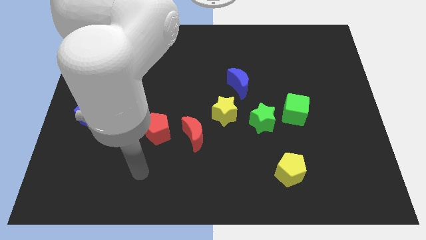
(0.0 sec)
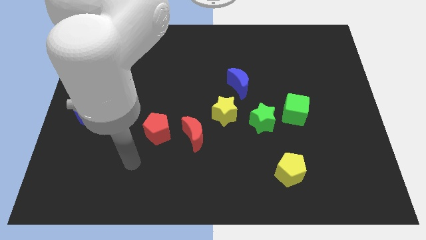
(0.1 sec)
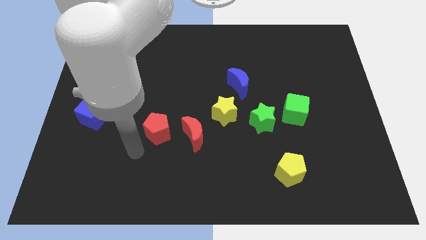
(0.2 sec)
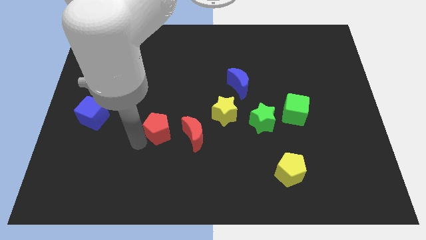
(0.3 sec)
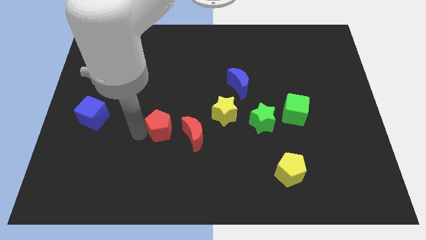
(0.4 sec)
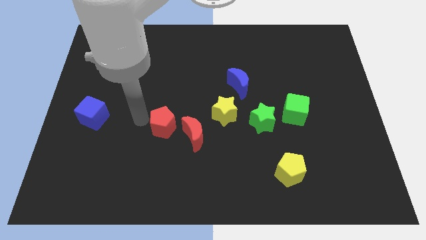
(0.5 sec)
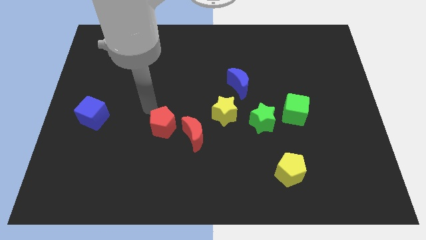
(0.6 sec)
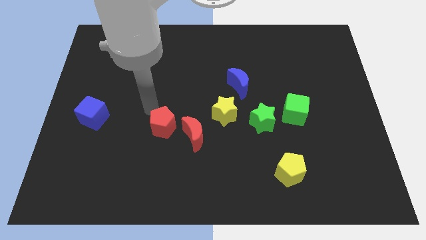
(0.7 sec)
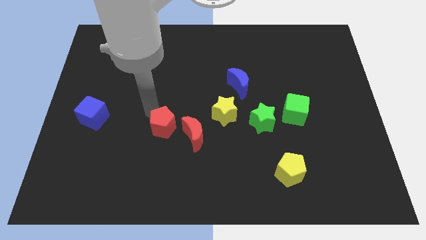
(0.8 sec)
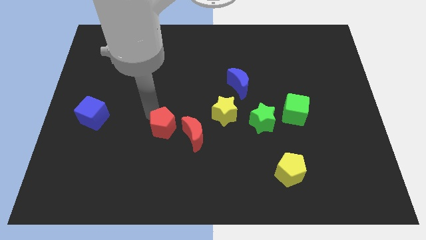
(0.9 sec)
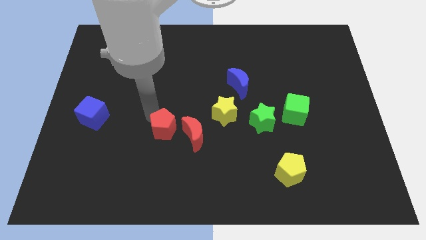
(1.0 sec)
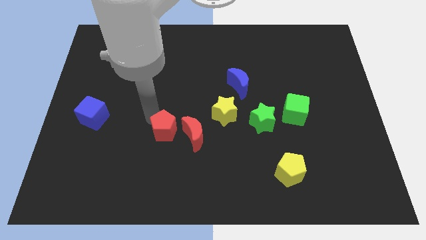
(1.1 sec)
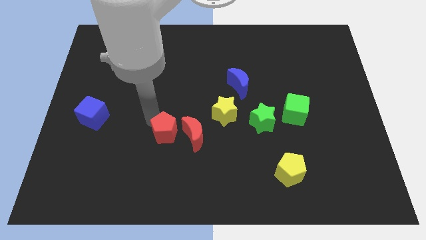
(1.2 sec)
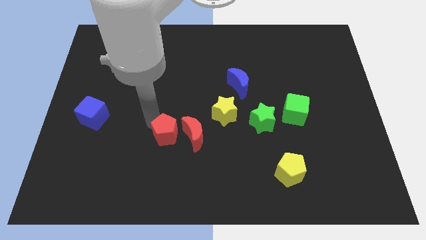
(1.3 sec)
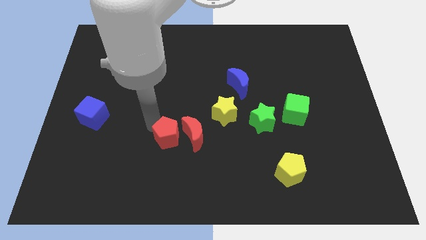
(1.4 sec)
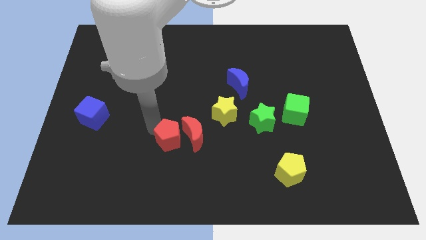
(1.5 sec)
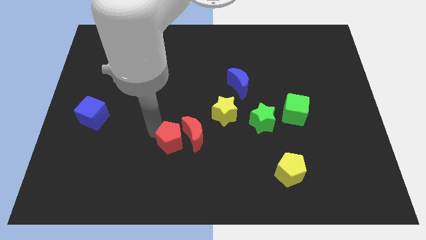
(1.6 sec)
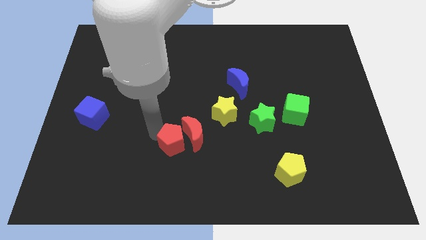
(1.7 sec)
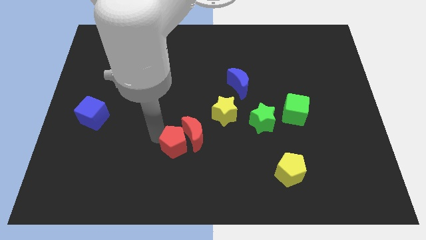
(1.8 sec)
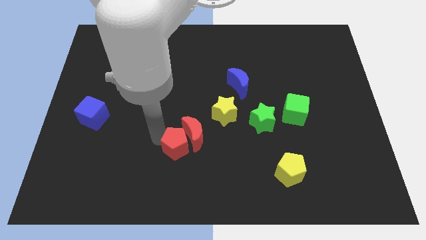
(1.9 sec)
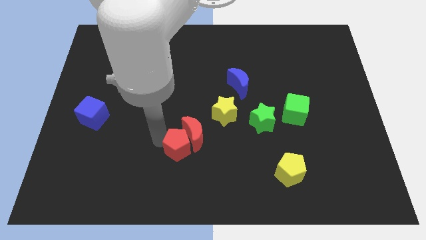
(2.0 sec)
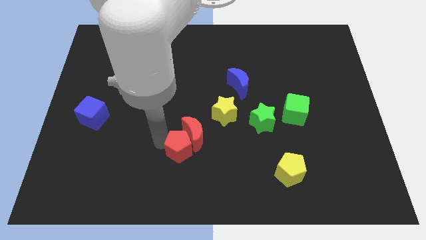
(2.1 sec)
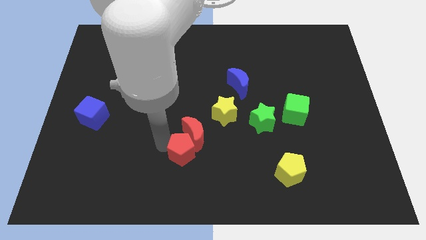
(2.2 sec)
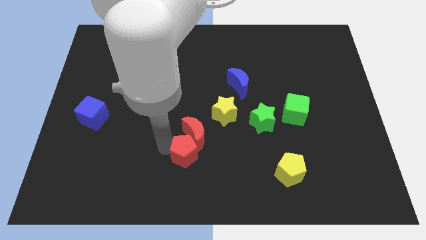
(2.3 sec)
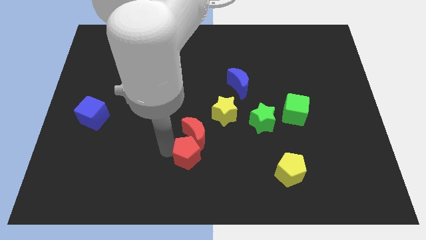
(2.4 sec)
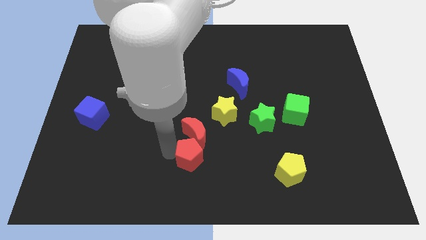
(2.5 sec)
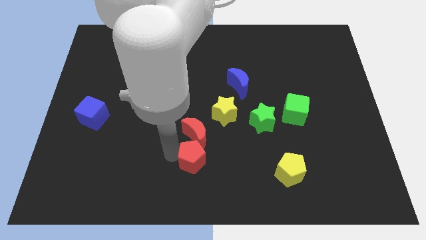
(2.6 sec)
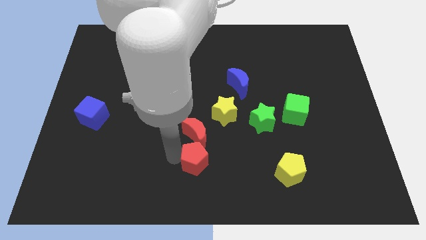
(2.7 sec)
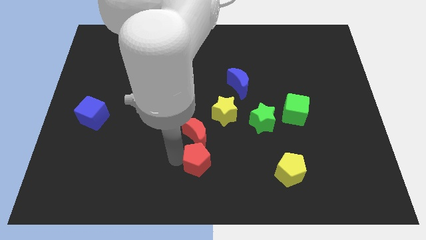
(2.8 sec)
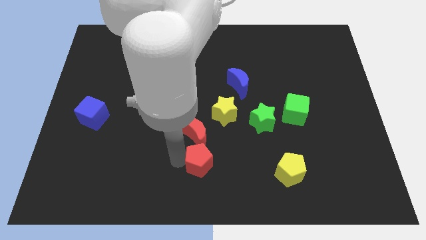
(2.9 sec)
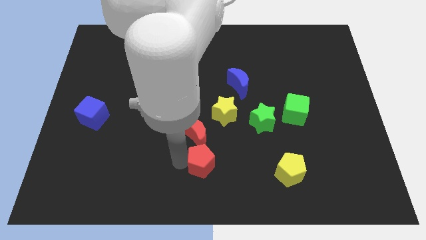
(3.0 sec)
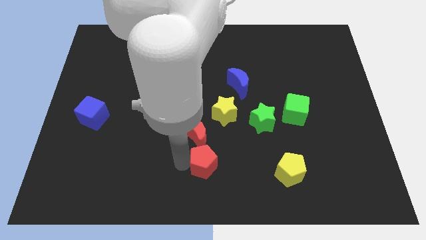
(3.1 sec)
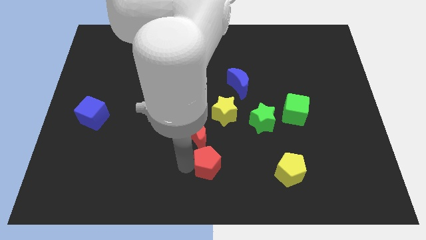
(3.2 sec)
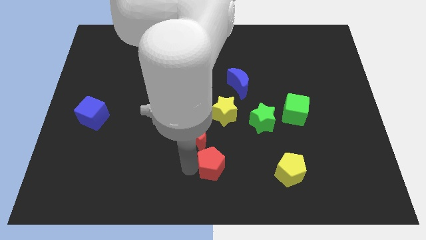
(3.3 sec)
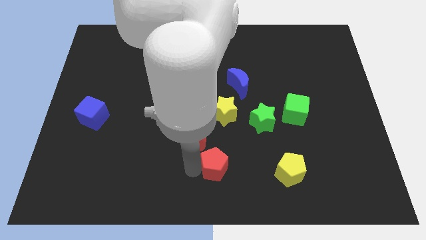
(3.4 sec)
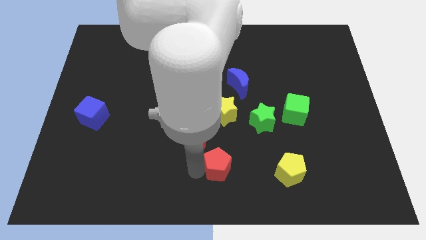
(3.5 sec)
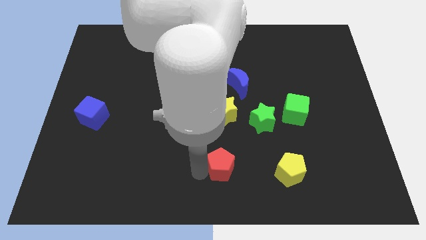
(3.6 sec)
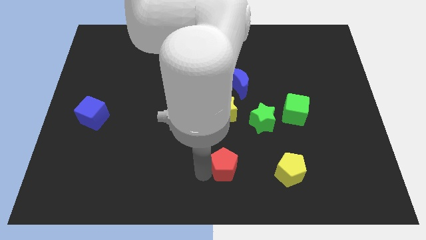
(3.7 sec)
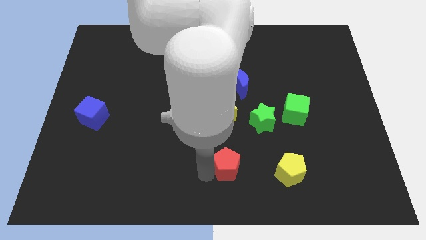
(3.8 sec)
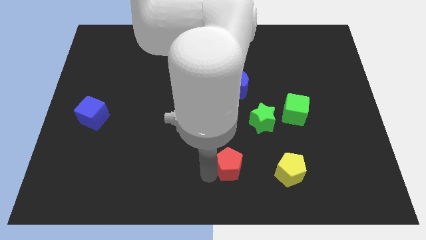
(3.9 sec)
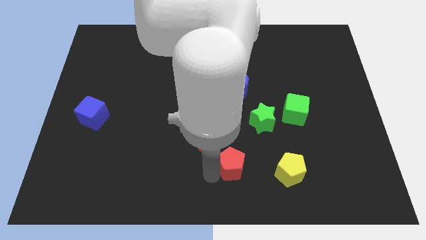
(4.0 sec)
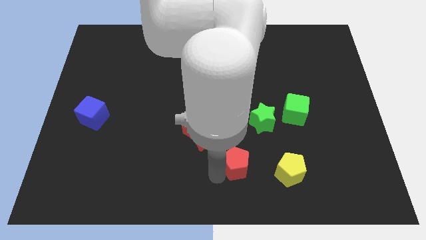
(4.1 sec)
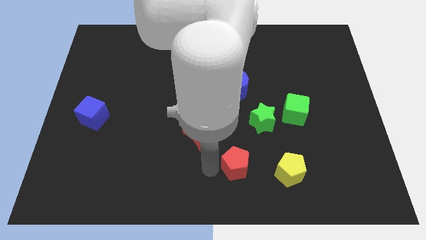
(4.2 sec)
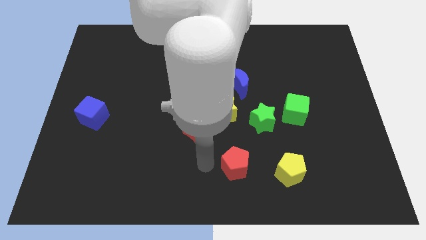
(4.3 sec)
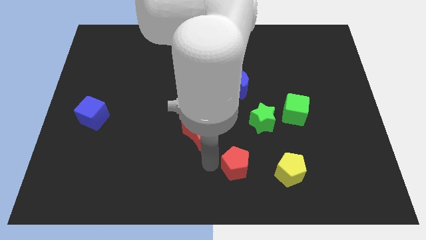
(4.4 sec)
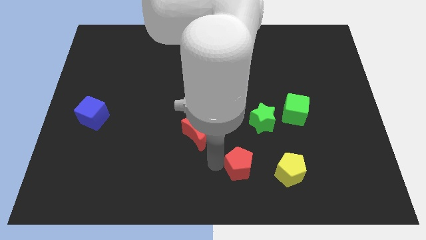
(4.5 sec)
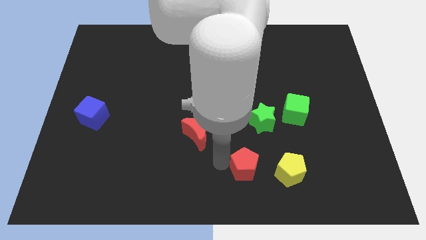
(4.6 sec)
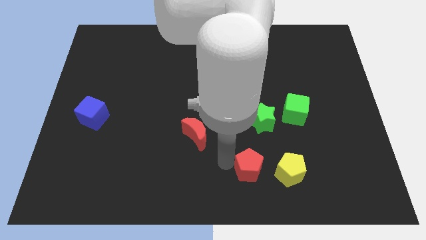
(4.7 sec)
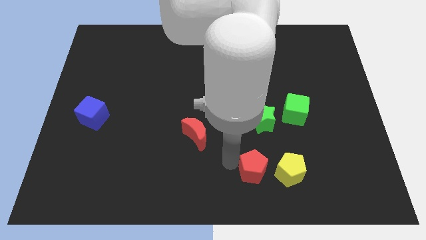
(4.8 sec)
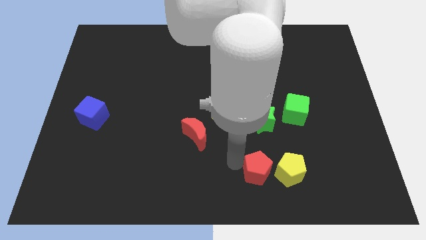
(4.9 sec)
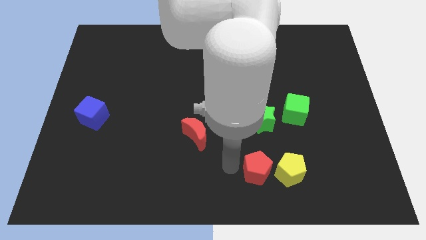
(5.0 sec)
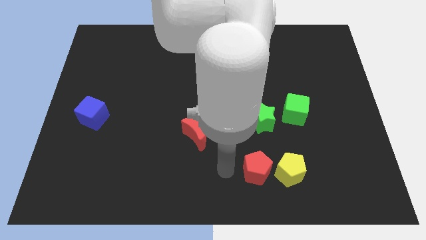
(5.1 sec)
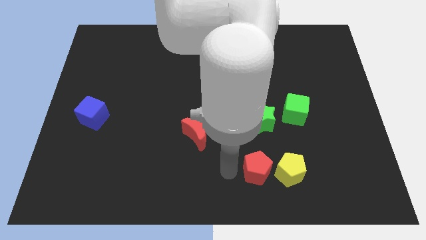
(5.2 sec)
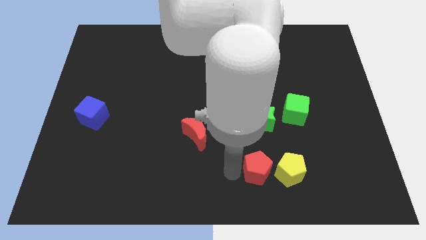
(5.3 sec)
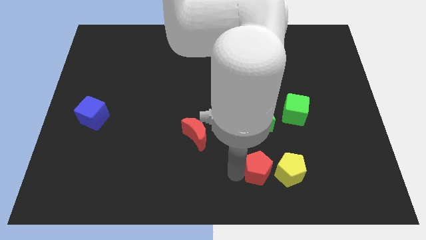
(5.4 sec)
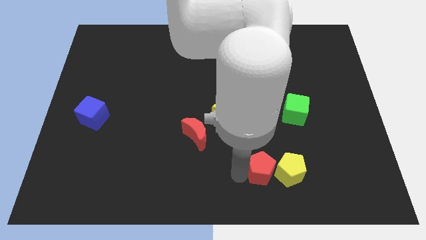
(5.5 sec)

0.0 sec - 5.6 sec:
slide the red pentagon to the yellow pentagon

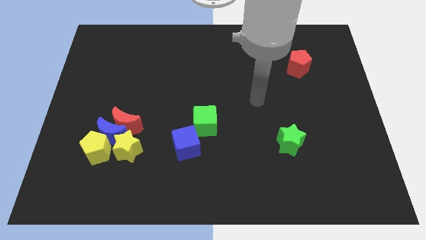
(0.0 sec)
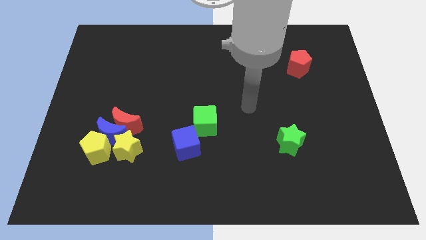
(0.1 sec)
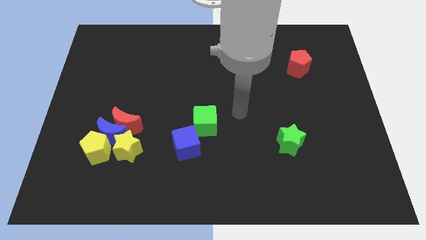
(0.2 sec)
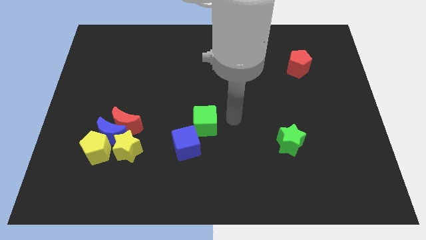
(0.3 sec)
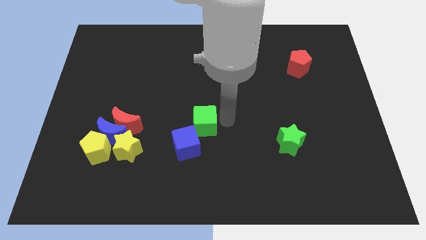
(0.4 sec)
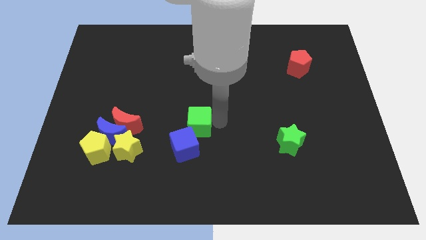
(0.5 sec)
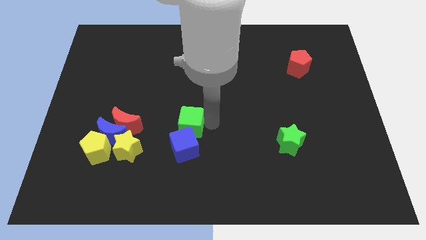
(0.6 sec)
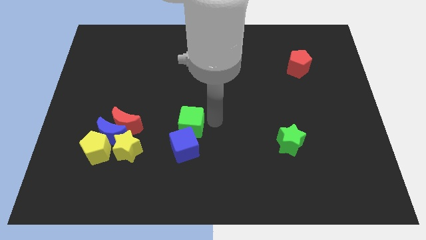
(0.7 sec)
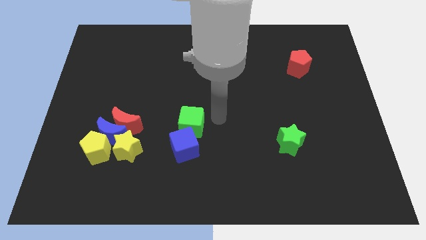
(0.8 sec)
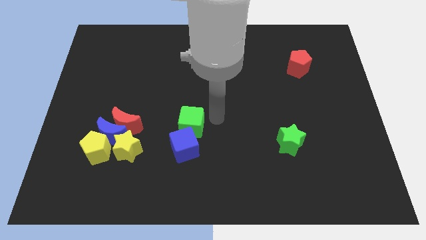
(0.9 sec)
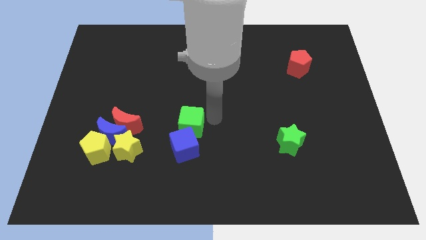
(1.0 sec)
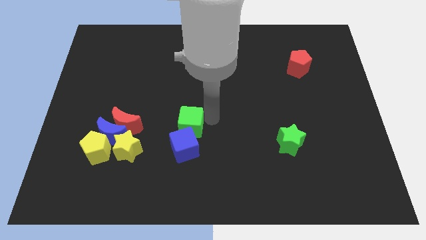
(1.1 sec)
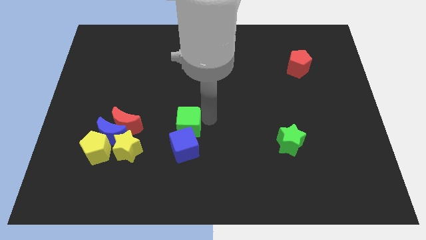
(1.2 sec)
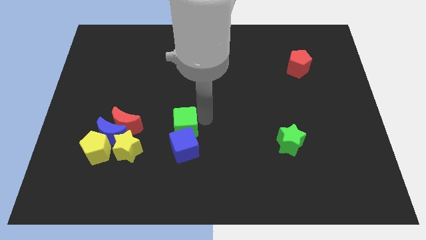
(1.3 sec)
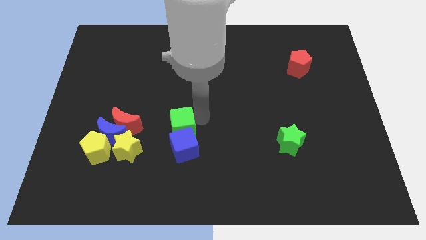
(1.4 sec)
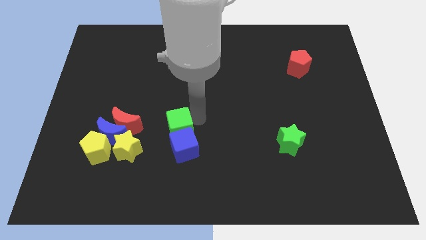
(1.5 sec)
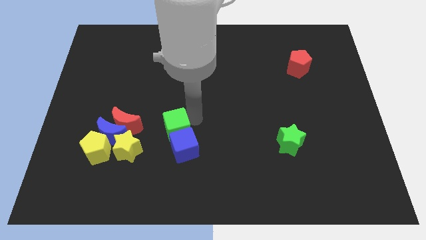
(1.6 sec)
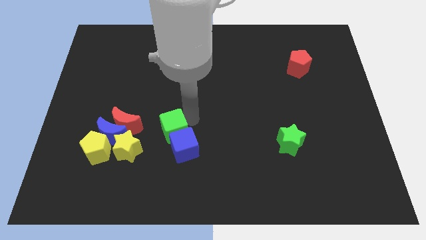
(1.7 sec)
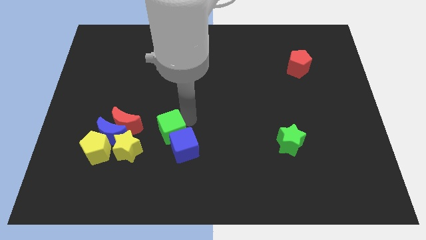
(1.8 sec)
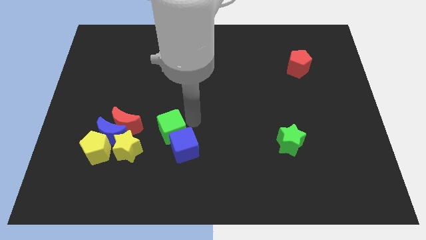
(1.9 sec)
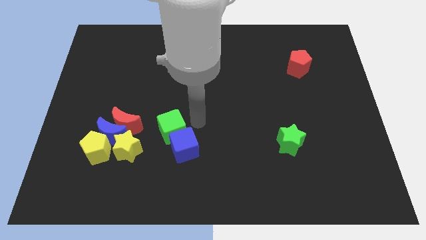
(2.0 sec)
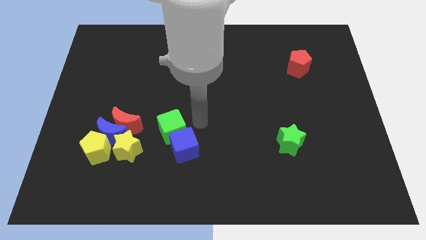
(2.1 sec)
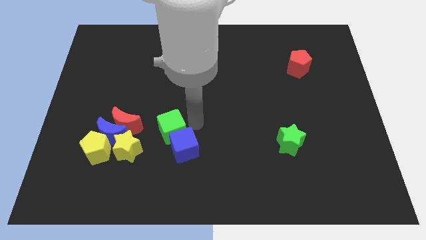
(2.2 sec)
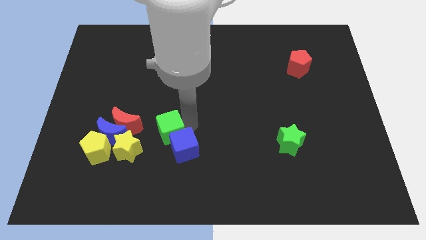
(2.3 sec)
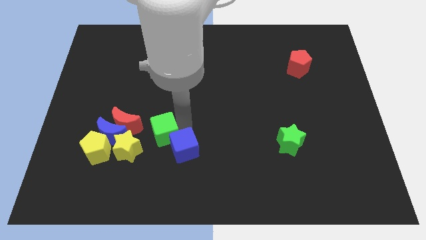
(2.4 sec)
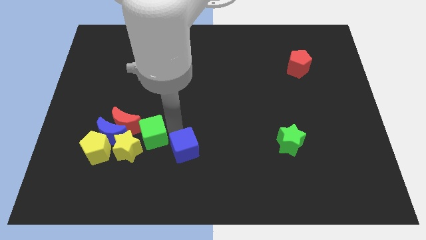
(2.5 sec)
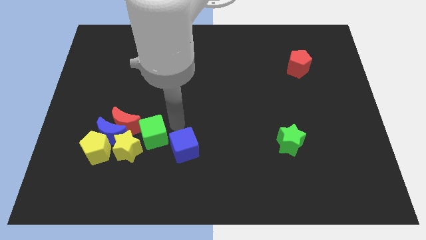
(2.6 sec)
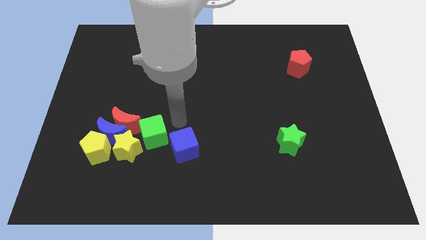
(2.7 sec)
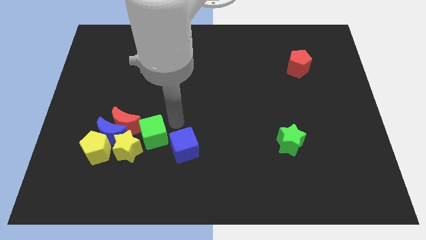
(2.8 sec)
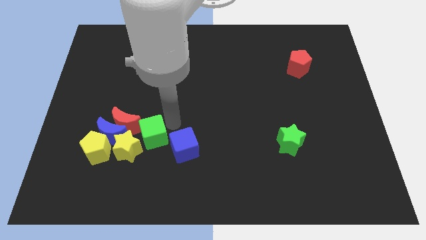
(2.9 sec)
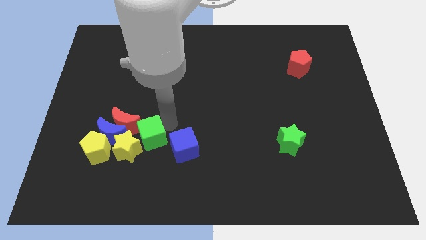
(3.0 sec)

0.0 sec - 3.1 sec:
put the green cube close to the yellow star
